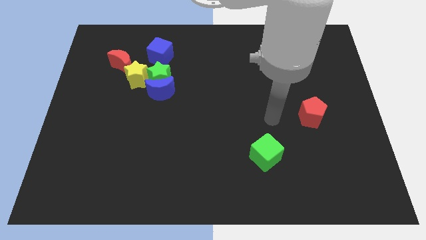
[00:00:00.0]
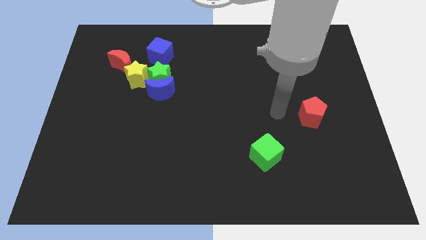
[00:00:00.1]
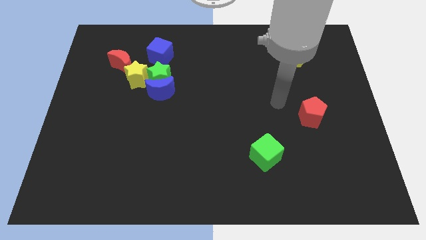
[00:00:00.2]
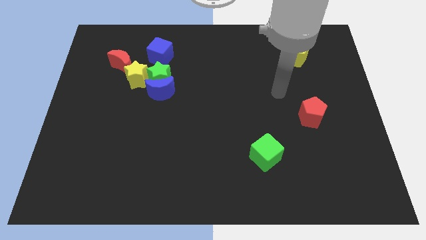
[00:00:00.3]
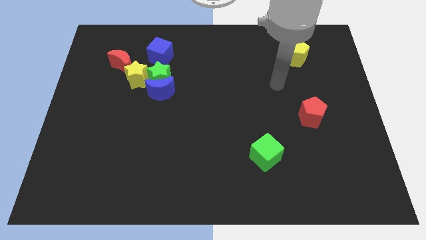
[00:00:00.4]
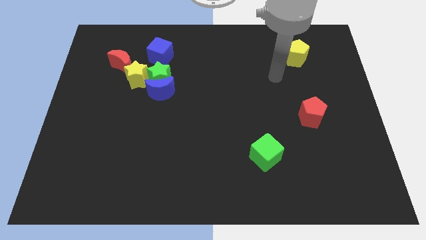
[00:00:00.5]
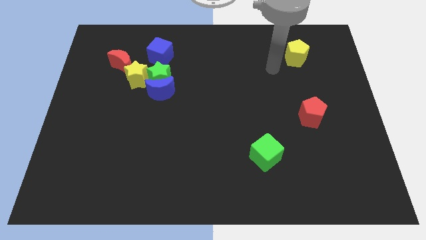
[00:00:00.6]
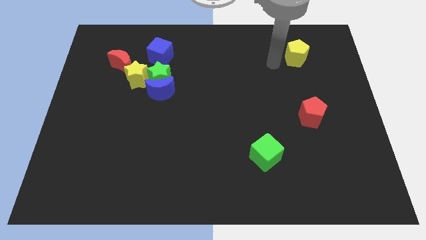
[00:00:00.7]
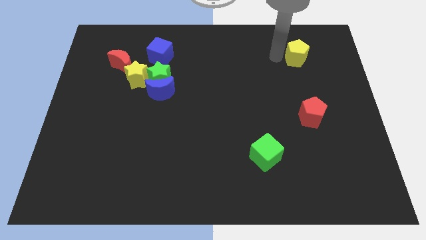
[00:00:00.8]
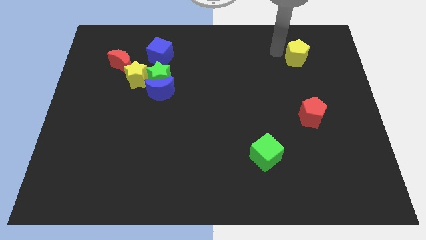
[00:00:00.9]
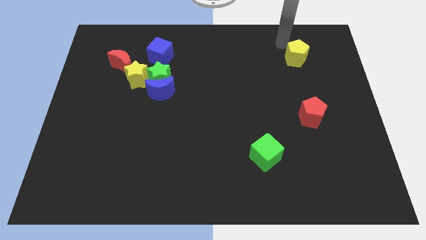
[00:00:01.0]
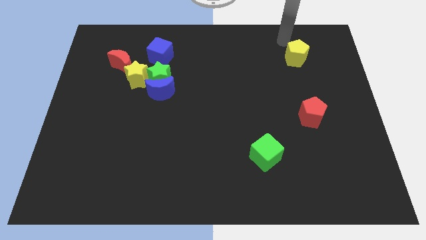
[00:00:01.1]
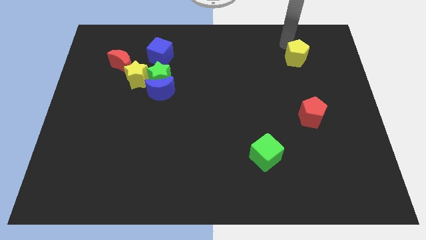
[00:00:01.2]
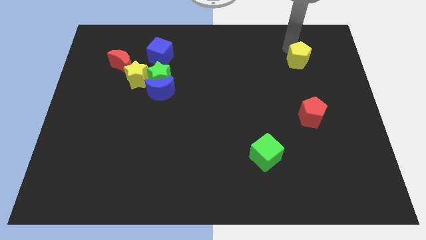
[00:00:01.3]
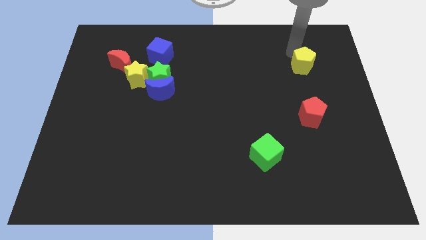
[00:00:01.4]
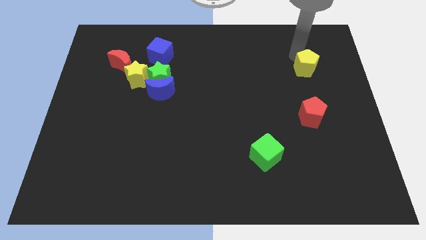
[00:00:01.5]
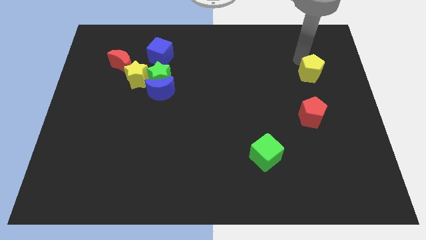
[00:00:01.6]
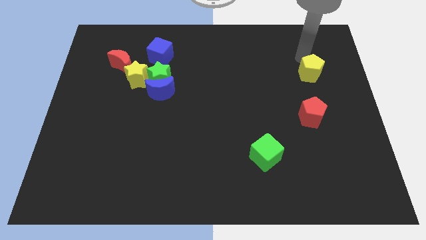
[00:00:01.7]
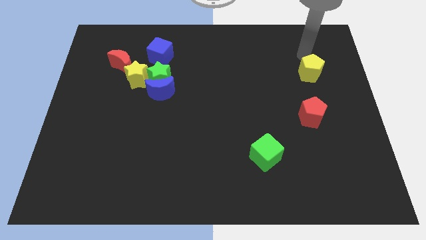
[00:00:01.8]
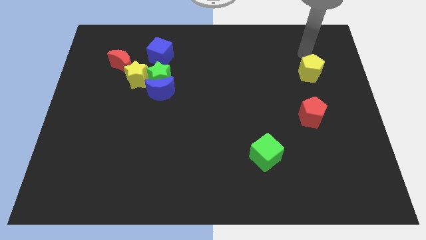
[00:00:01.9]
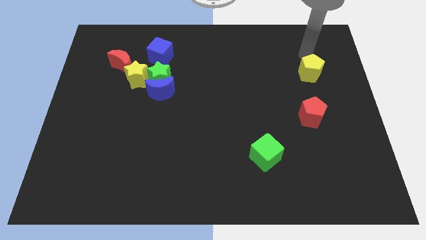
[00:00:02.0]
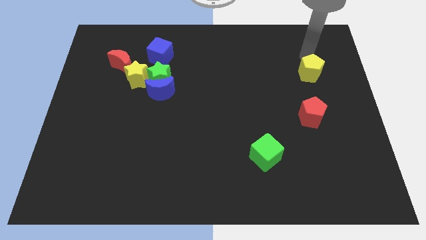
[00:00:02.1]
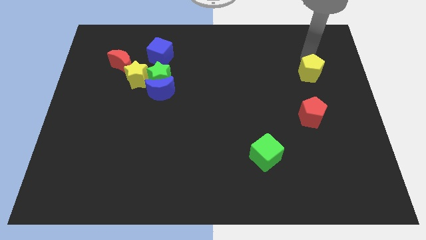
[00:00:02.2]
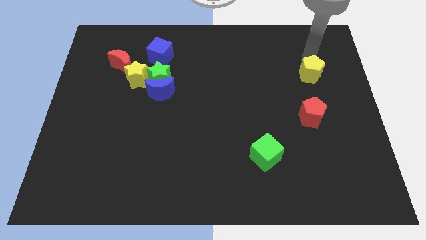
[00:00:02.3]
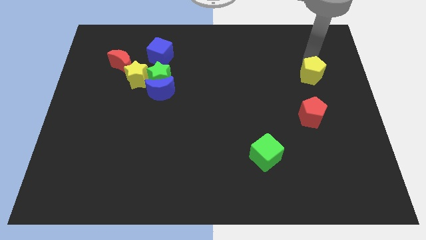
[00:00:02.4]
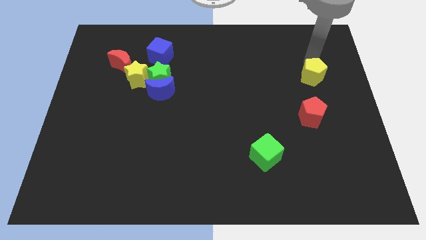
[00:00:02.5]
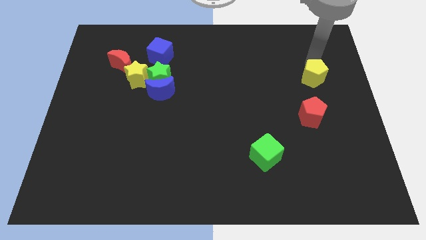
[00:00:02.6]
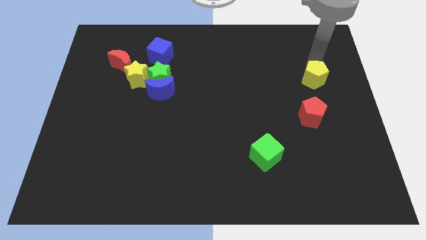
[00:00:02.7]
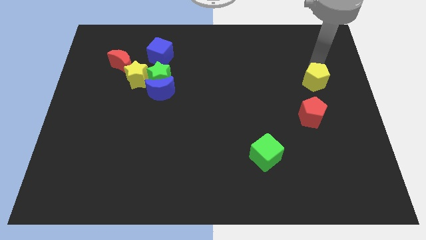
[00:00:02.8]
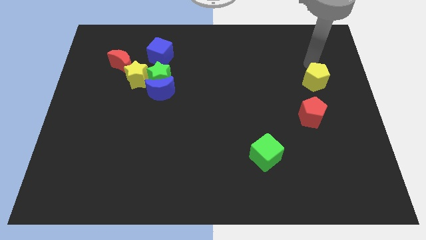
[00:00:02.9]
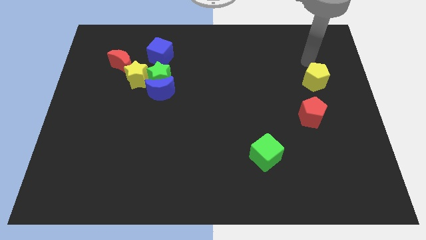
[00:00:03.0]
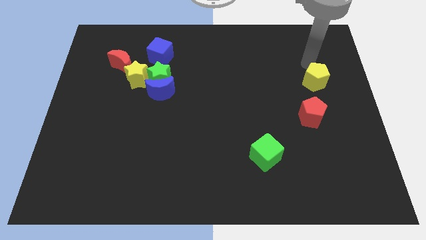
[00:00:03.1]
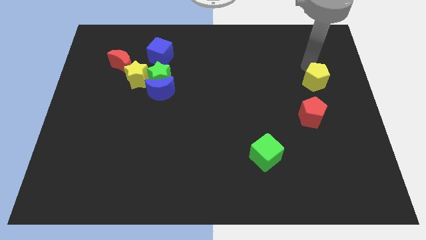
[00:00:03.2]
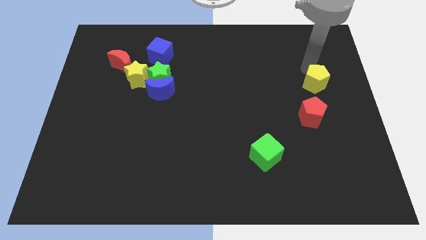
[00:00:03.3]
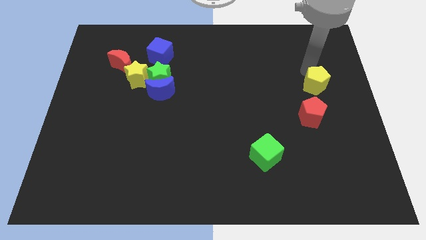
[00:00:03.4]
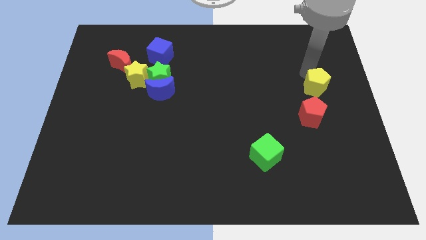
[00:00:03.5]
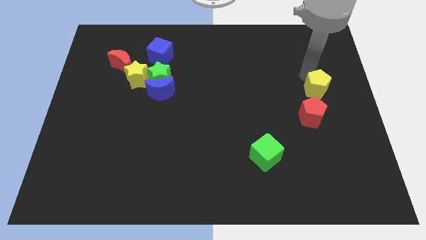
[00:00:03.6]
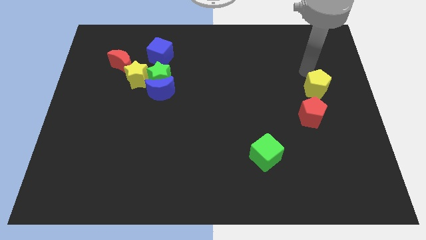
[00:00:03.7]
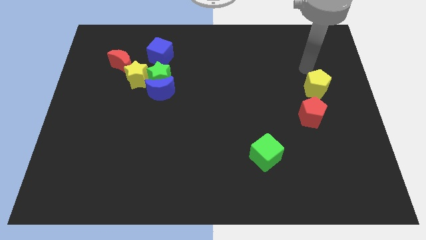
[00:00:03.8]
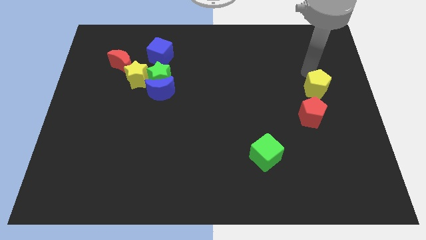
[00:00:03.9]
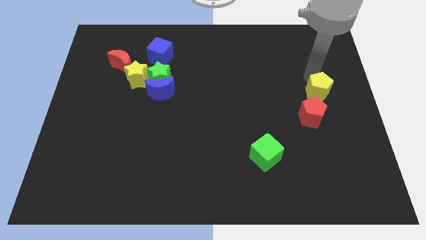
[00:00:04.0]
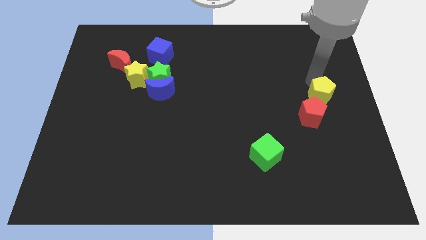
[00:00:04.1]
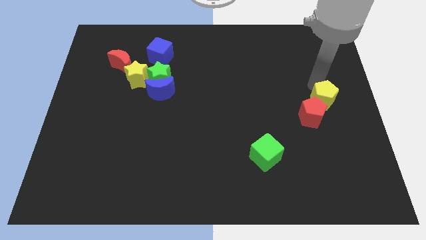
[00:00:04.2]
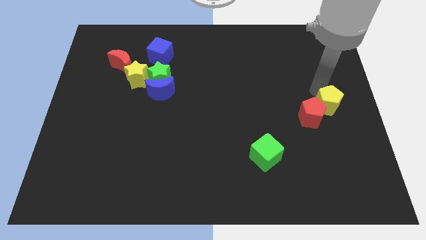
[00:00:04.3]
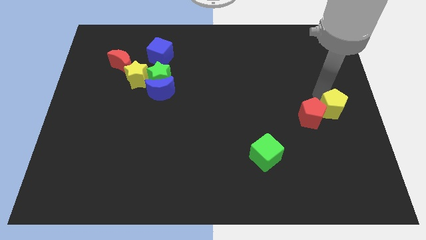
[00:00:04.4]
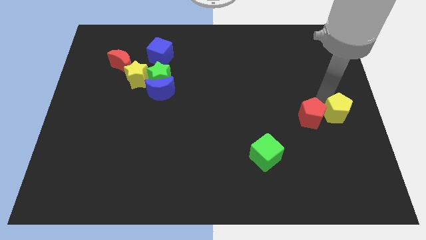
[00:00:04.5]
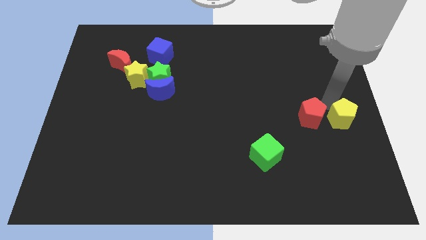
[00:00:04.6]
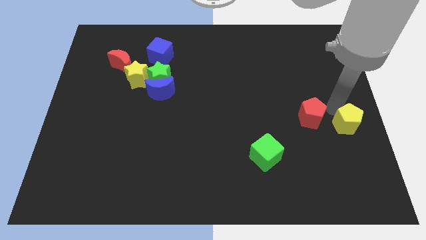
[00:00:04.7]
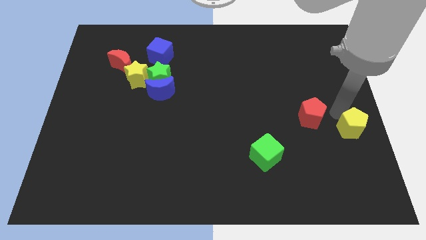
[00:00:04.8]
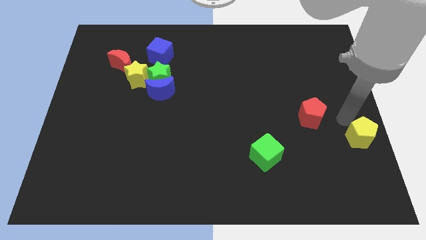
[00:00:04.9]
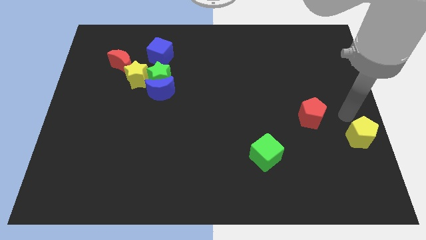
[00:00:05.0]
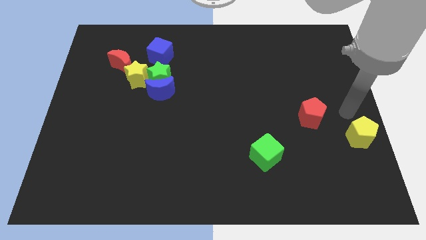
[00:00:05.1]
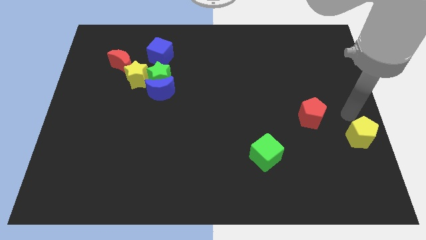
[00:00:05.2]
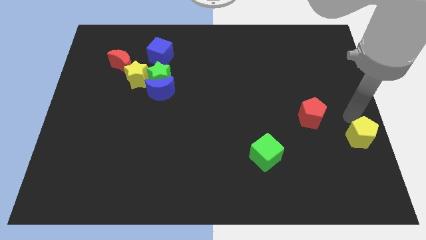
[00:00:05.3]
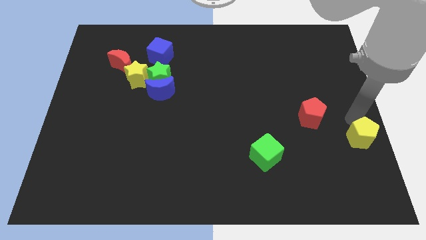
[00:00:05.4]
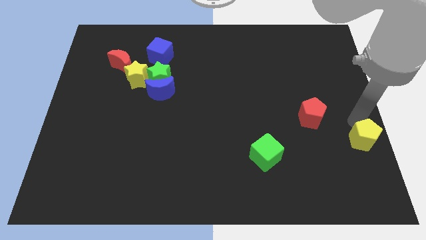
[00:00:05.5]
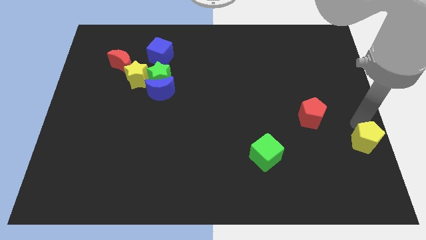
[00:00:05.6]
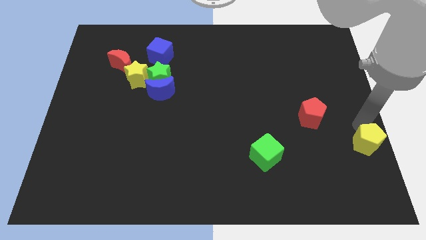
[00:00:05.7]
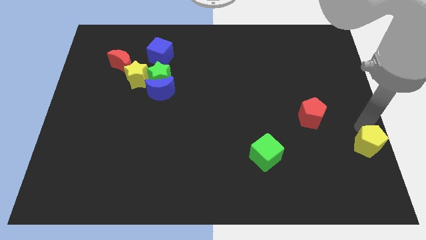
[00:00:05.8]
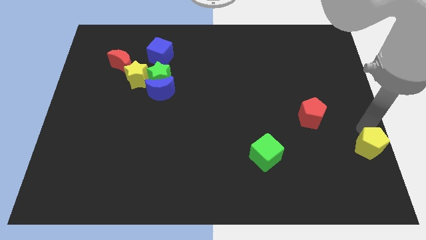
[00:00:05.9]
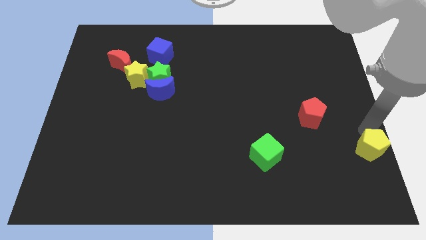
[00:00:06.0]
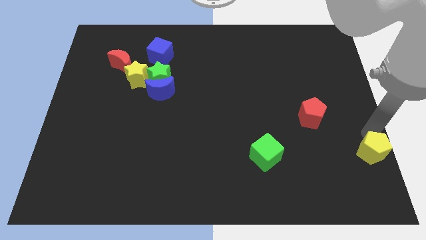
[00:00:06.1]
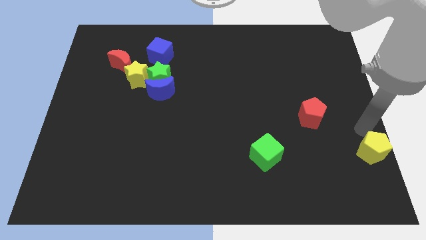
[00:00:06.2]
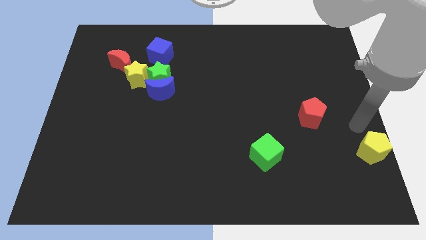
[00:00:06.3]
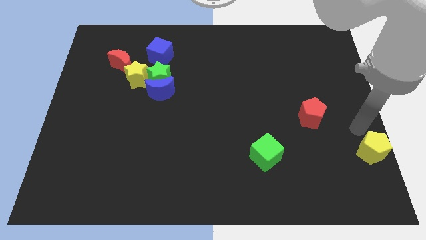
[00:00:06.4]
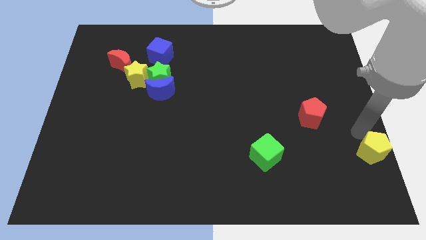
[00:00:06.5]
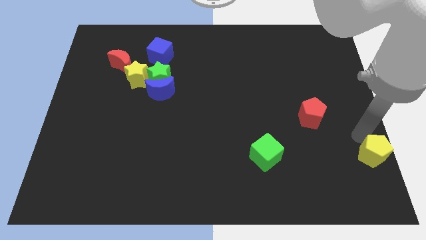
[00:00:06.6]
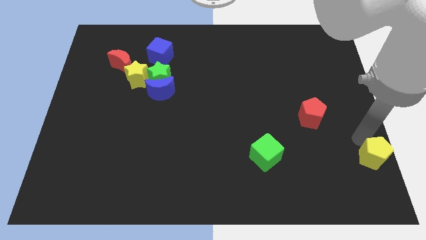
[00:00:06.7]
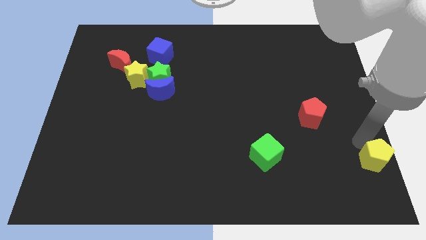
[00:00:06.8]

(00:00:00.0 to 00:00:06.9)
put the yellow pentagon to the bottom right of the board
